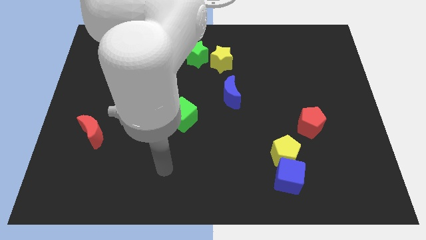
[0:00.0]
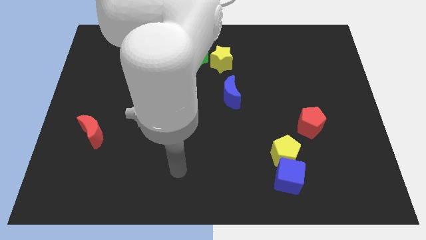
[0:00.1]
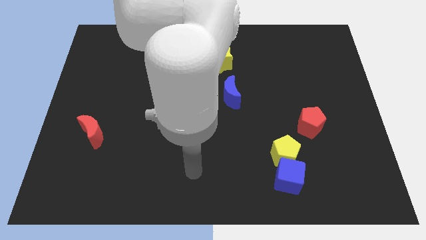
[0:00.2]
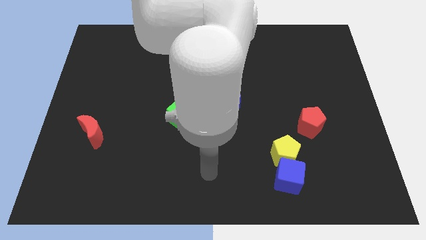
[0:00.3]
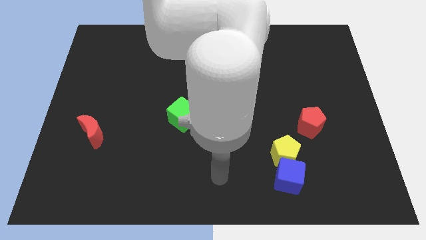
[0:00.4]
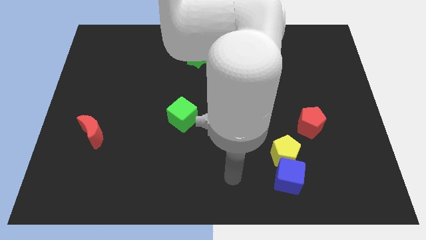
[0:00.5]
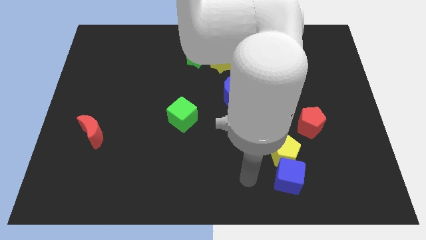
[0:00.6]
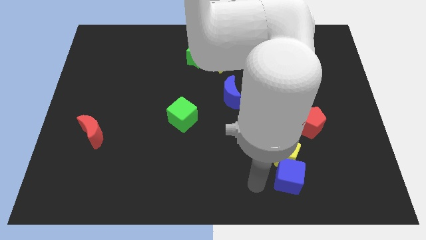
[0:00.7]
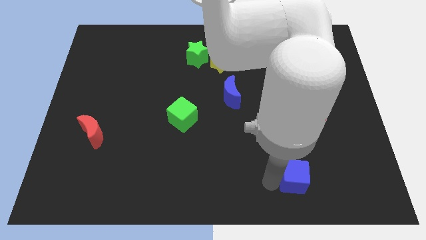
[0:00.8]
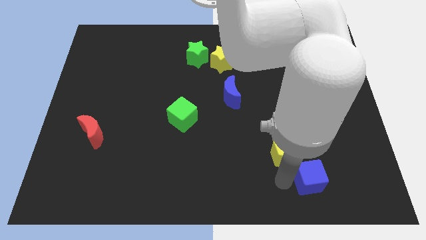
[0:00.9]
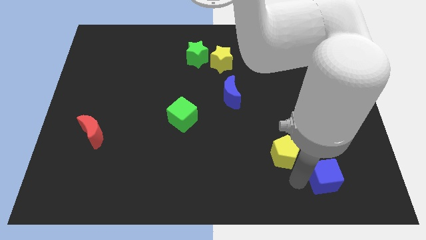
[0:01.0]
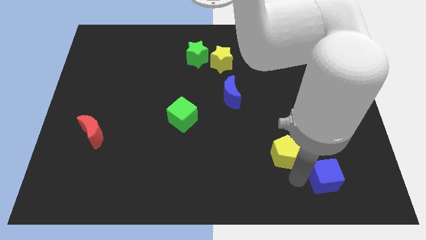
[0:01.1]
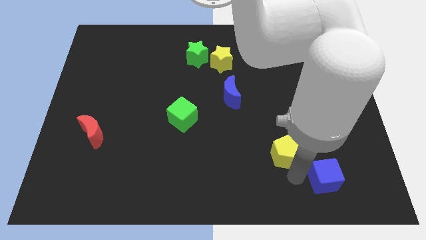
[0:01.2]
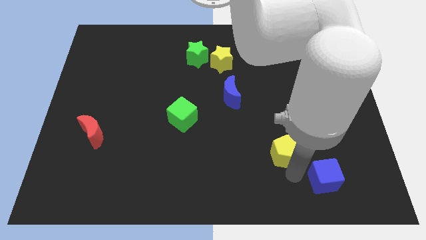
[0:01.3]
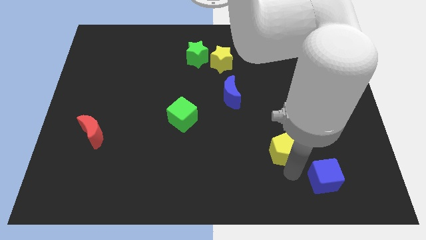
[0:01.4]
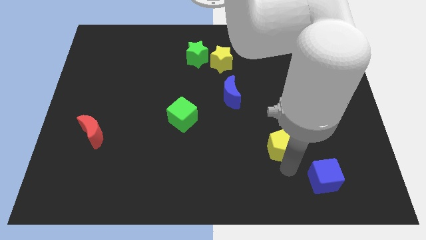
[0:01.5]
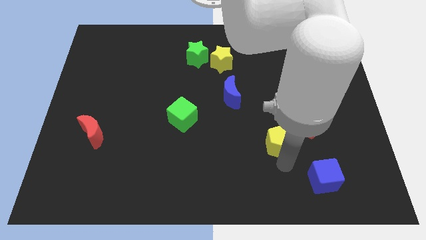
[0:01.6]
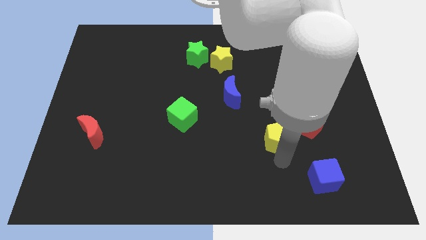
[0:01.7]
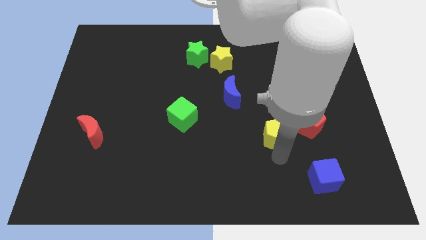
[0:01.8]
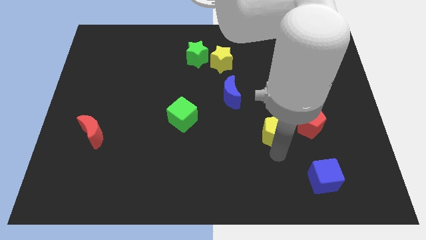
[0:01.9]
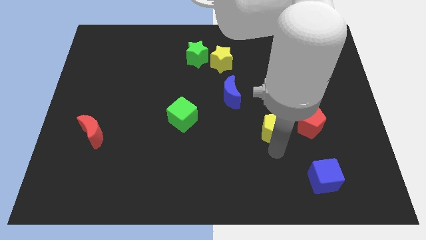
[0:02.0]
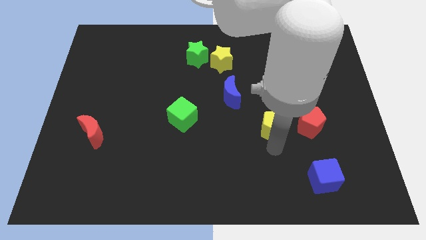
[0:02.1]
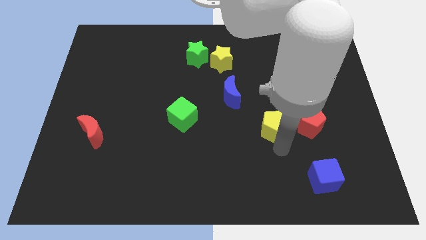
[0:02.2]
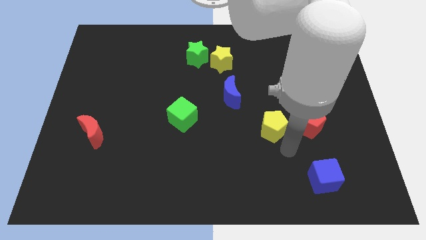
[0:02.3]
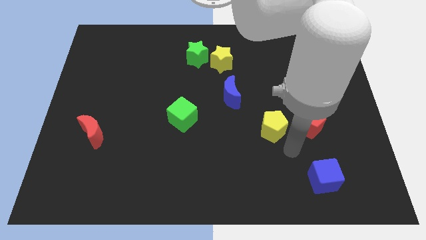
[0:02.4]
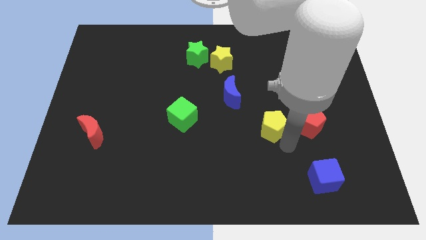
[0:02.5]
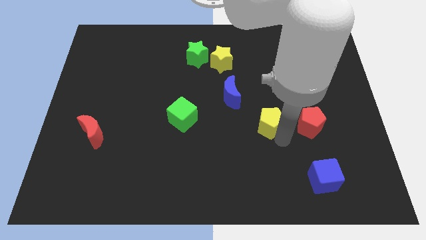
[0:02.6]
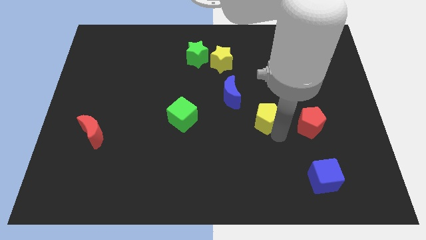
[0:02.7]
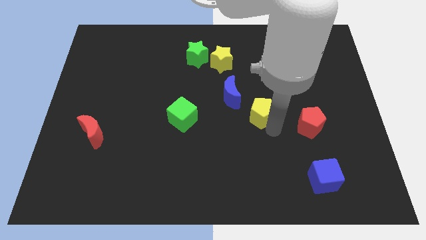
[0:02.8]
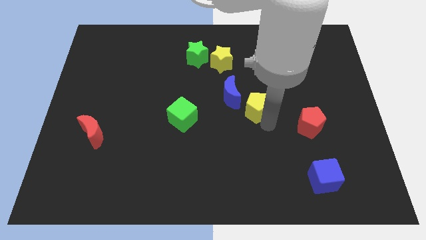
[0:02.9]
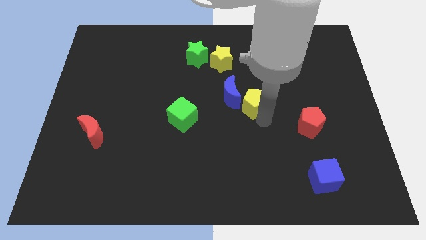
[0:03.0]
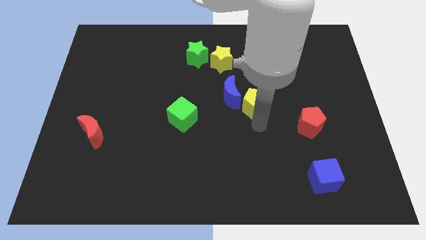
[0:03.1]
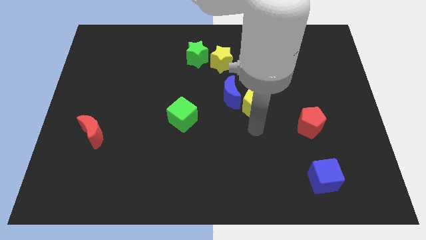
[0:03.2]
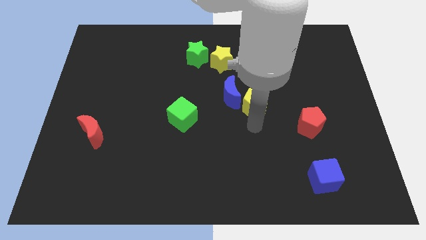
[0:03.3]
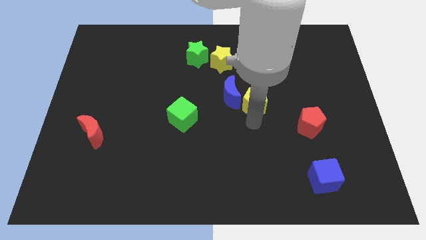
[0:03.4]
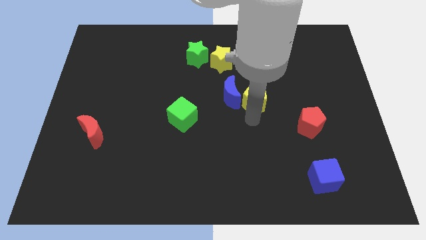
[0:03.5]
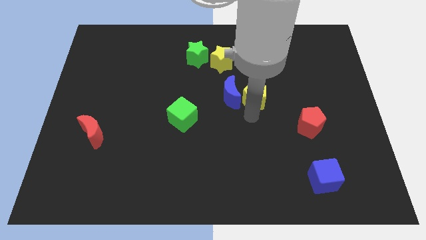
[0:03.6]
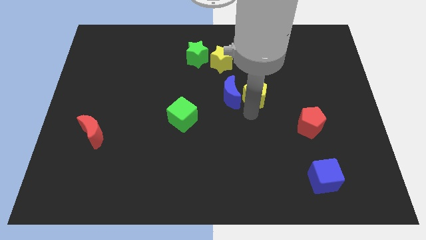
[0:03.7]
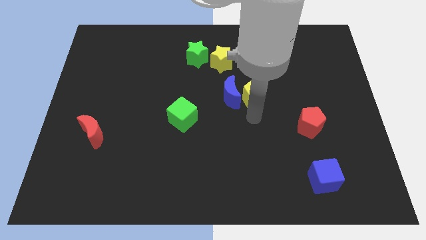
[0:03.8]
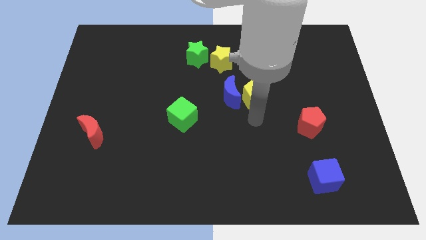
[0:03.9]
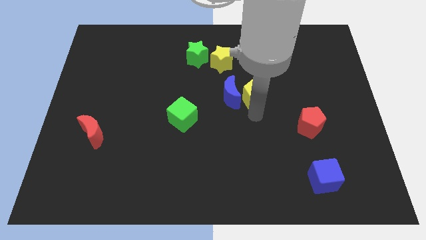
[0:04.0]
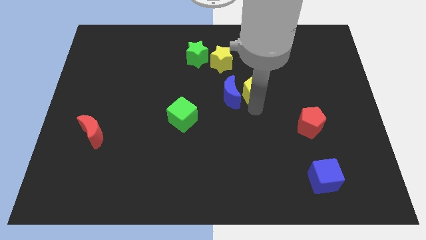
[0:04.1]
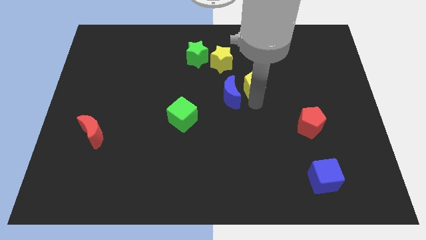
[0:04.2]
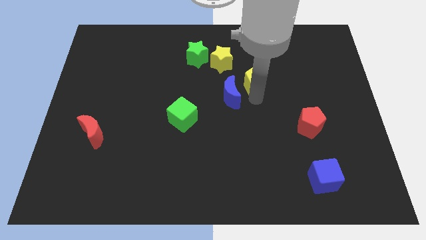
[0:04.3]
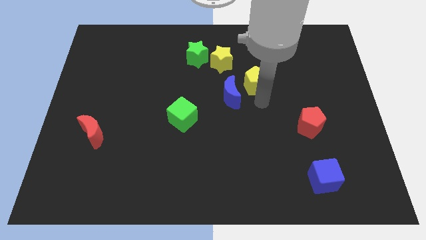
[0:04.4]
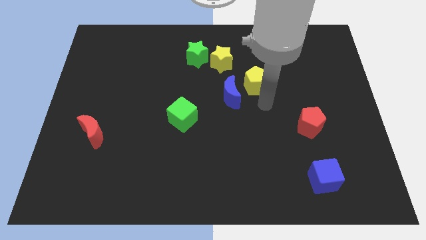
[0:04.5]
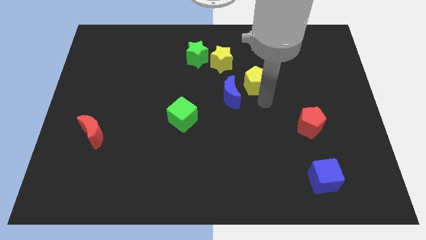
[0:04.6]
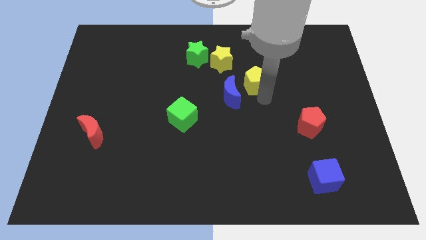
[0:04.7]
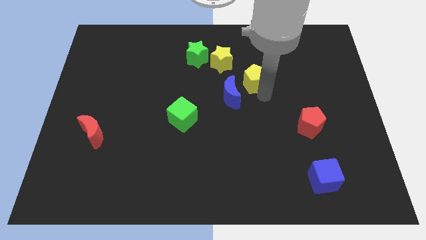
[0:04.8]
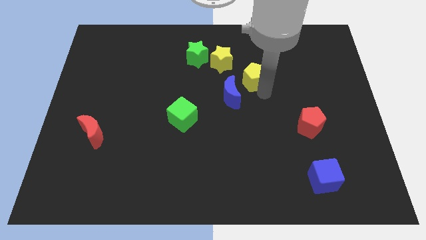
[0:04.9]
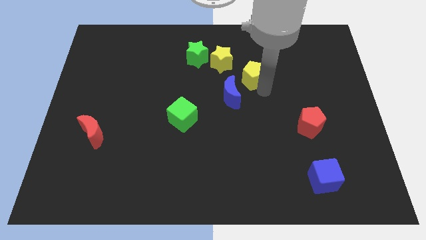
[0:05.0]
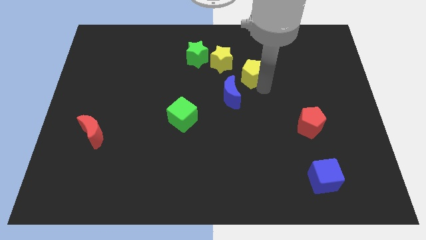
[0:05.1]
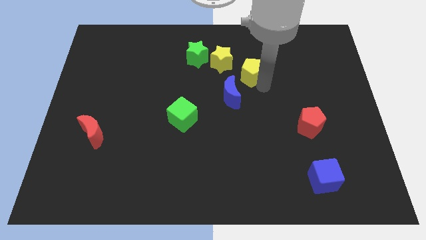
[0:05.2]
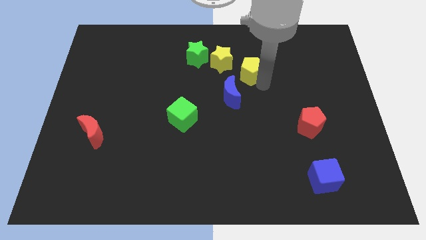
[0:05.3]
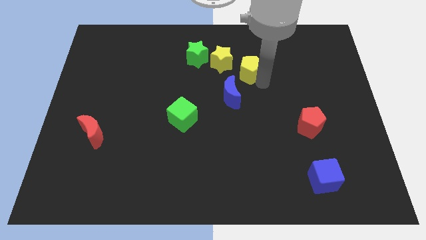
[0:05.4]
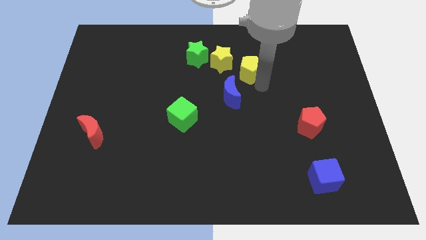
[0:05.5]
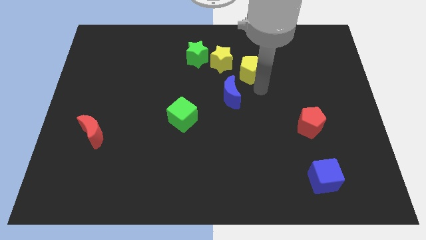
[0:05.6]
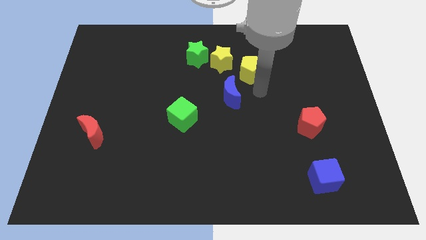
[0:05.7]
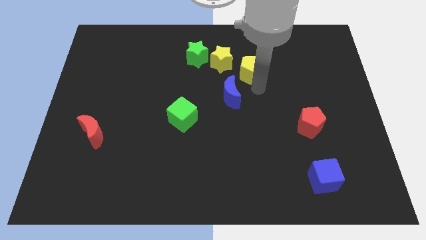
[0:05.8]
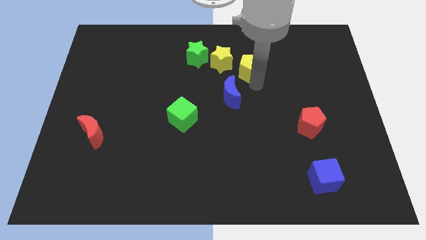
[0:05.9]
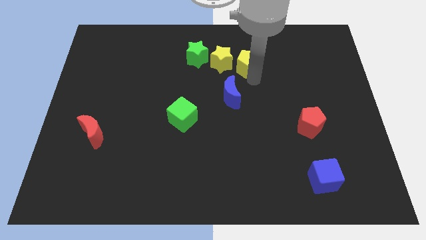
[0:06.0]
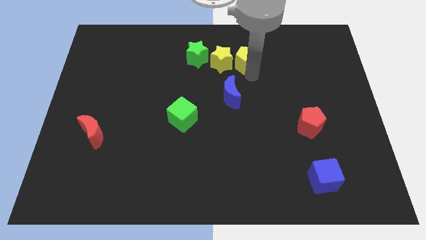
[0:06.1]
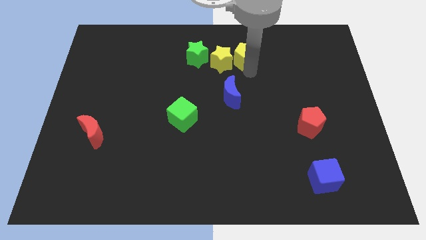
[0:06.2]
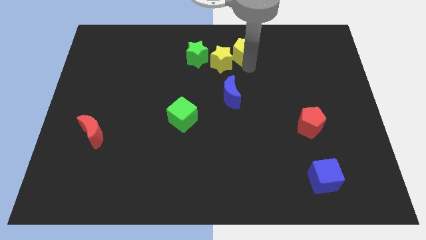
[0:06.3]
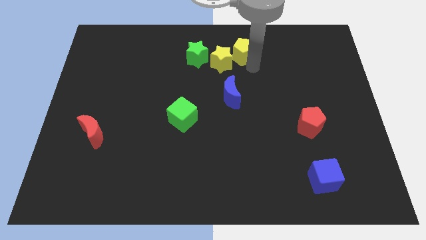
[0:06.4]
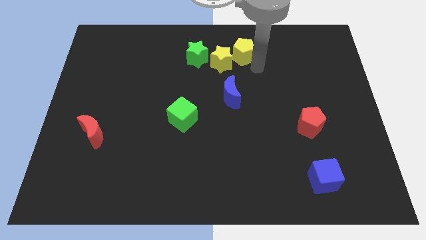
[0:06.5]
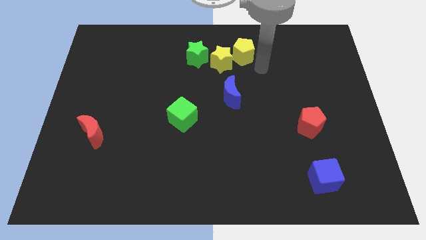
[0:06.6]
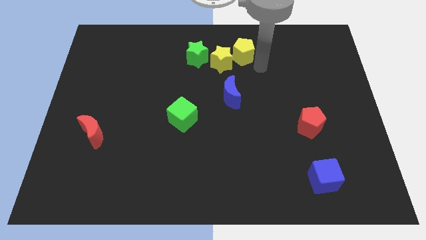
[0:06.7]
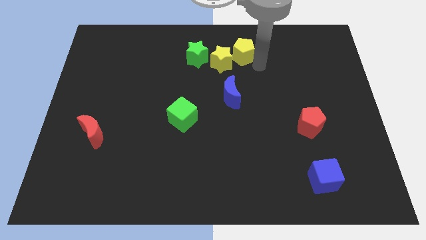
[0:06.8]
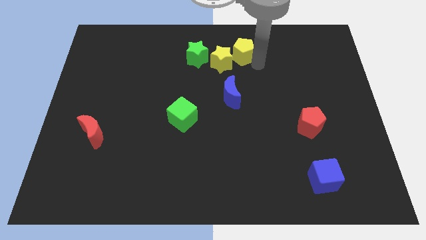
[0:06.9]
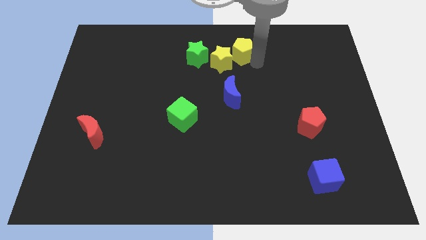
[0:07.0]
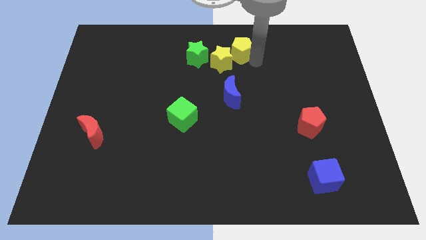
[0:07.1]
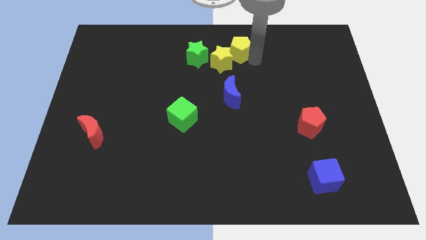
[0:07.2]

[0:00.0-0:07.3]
move the yellow pentagon to the top
